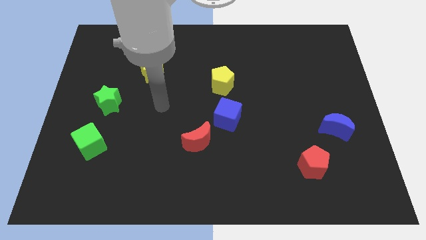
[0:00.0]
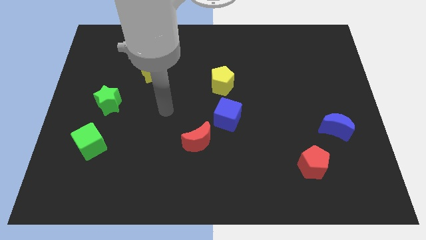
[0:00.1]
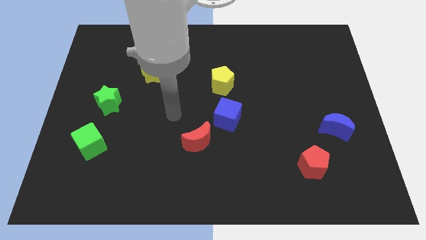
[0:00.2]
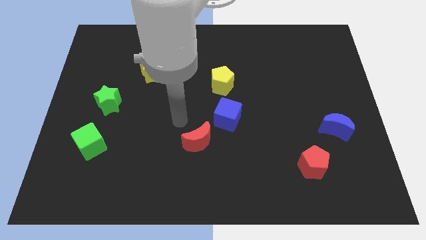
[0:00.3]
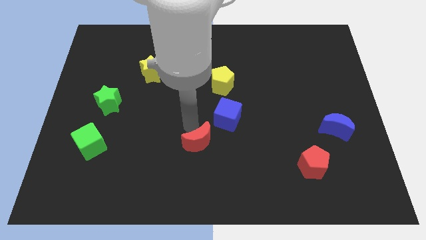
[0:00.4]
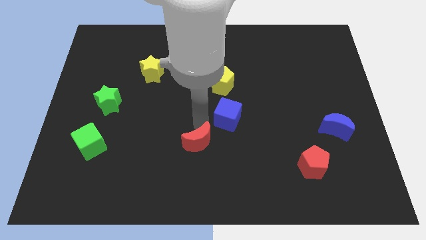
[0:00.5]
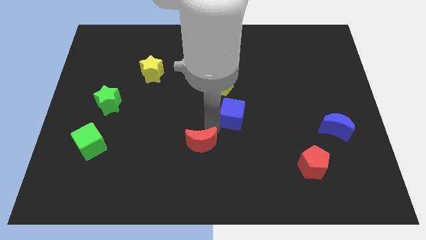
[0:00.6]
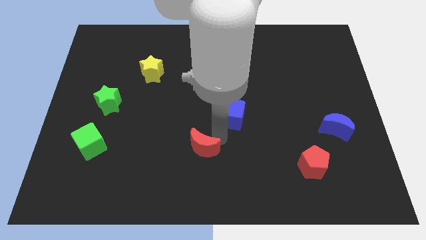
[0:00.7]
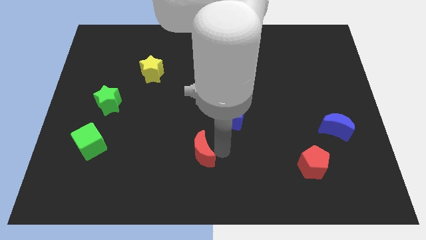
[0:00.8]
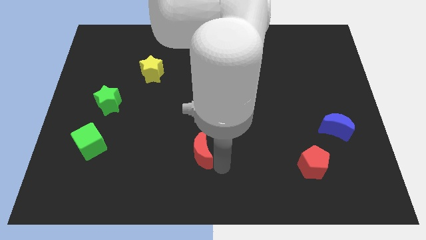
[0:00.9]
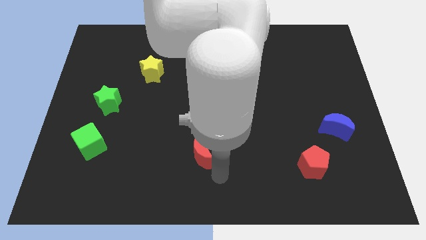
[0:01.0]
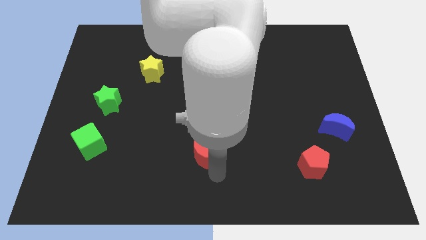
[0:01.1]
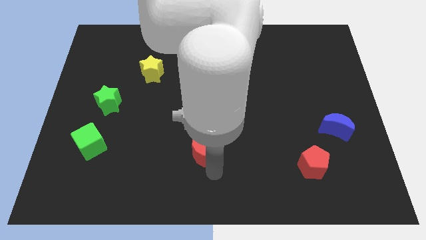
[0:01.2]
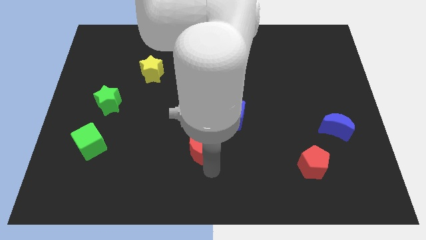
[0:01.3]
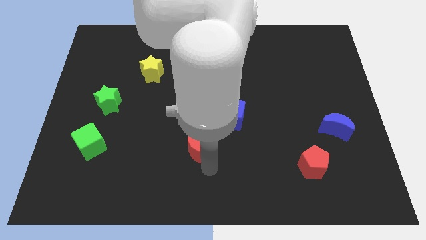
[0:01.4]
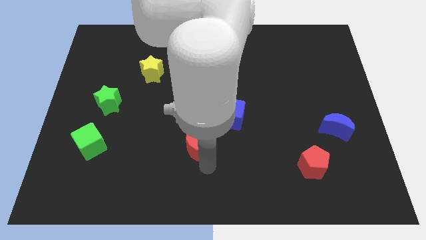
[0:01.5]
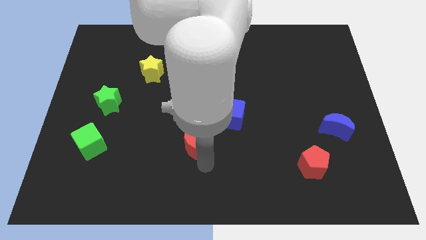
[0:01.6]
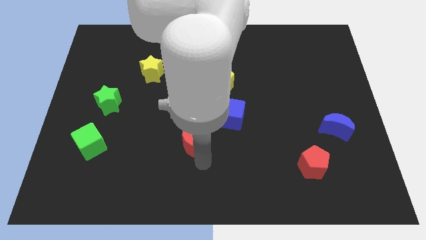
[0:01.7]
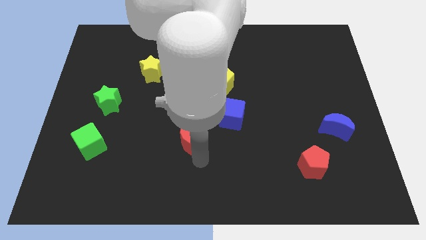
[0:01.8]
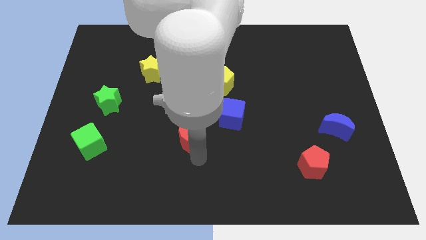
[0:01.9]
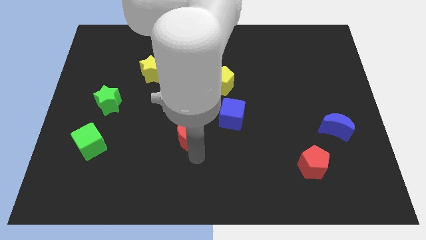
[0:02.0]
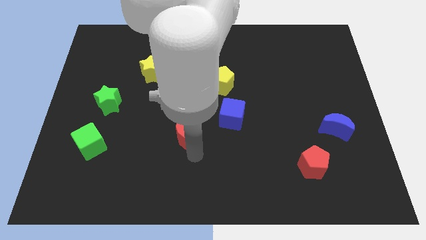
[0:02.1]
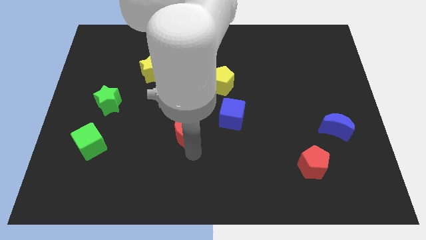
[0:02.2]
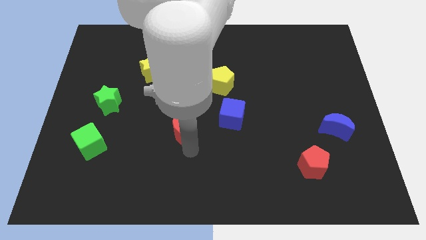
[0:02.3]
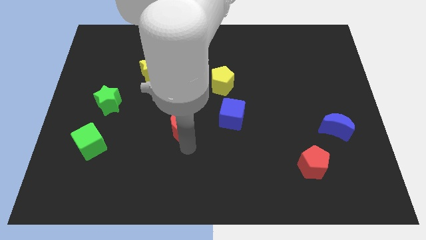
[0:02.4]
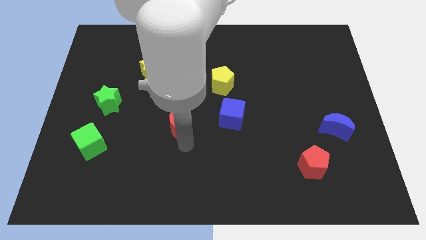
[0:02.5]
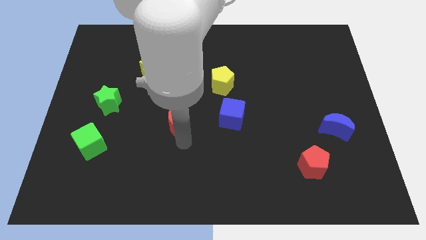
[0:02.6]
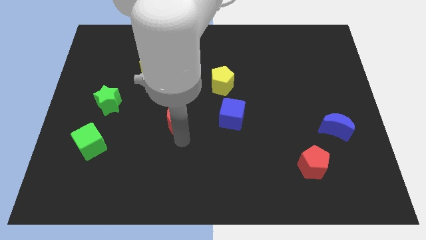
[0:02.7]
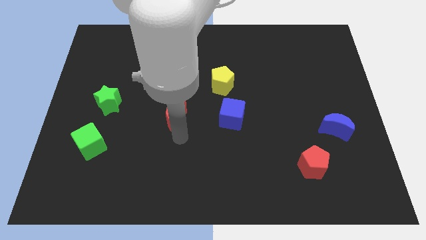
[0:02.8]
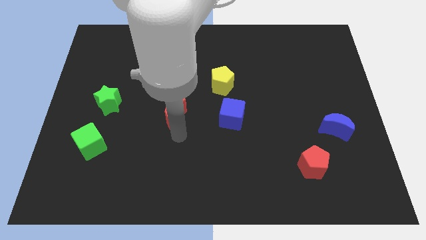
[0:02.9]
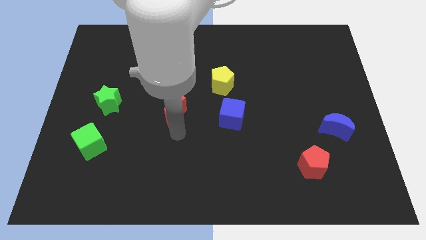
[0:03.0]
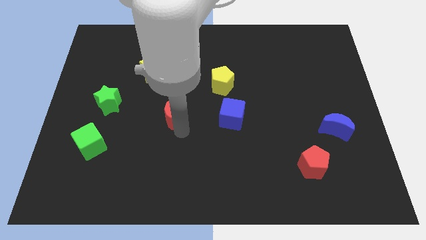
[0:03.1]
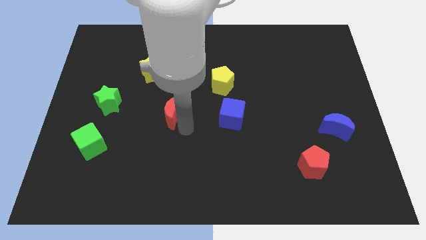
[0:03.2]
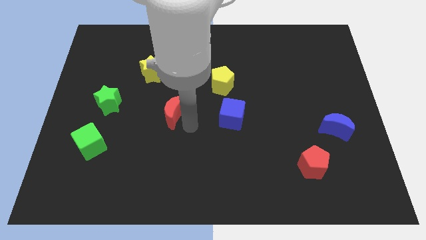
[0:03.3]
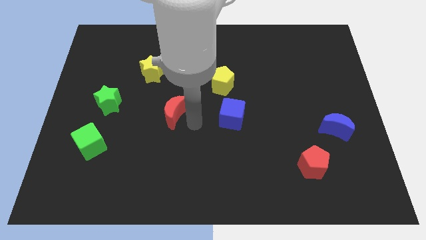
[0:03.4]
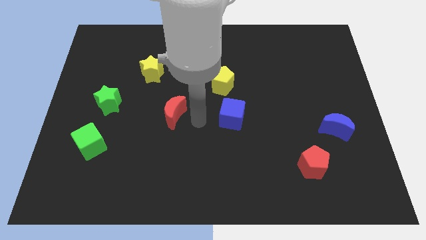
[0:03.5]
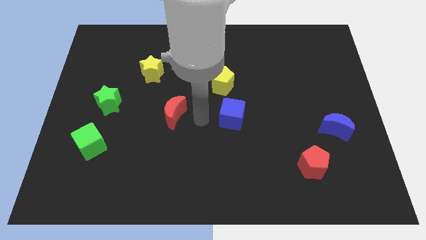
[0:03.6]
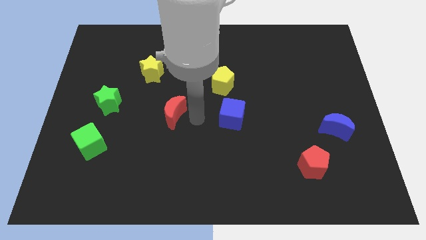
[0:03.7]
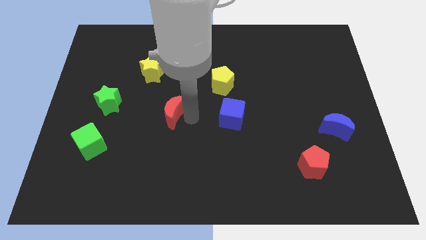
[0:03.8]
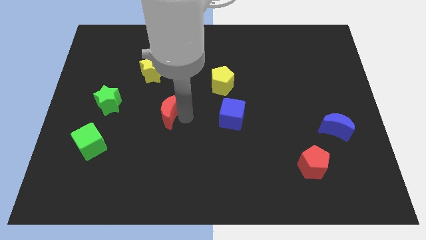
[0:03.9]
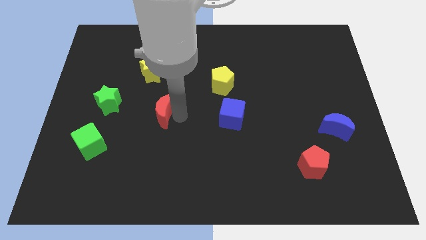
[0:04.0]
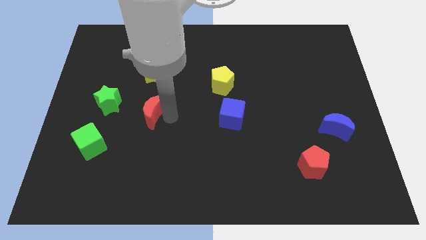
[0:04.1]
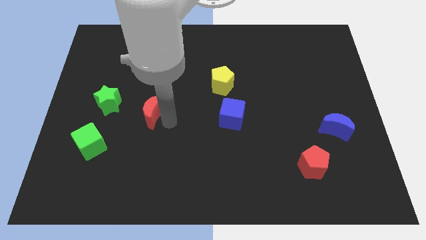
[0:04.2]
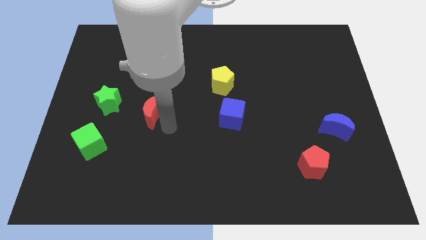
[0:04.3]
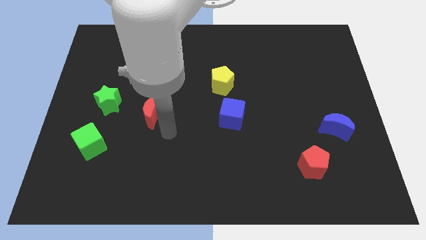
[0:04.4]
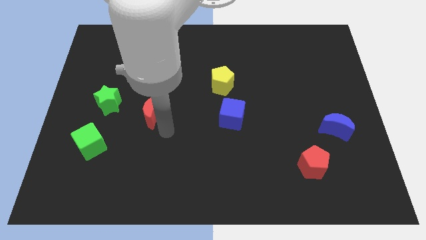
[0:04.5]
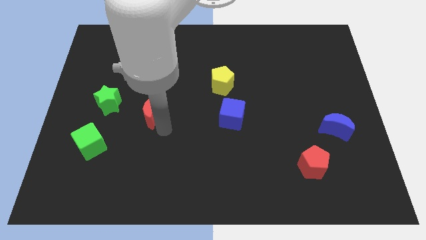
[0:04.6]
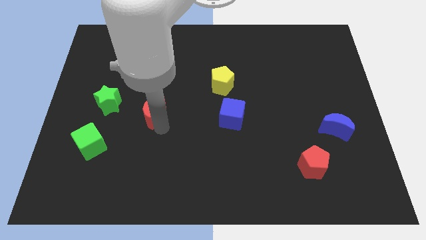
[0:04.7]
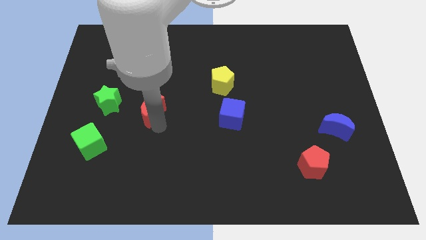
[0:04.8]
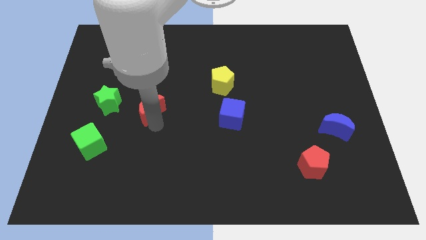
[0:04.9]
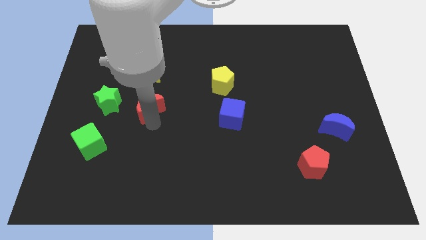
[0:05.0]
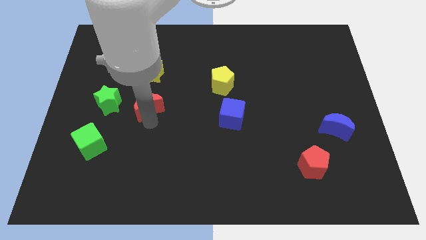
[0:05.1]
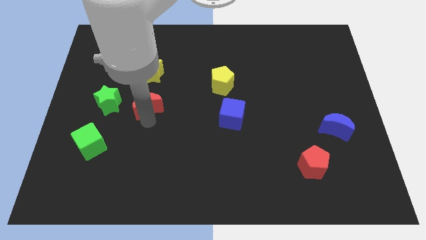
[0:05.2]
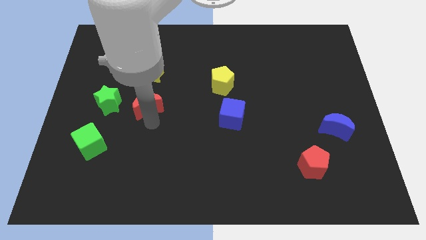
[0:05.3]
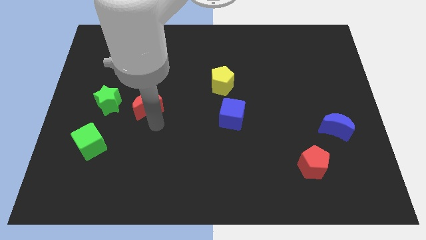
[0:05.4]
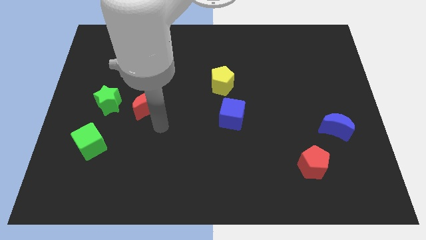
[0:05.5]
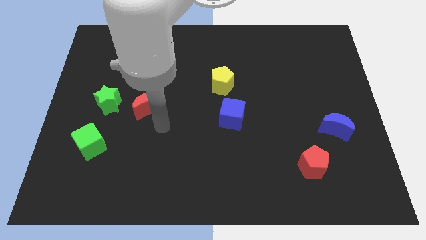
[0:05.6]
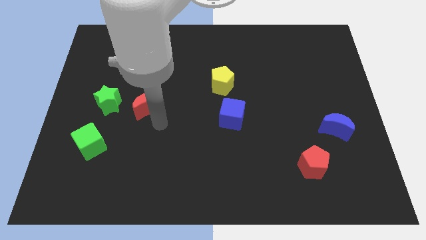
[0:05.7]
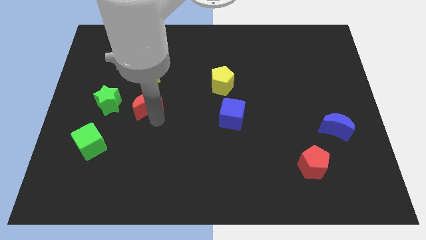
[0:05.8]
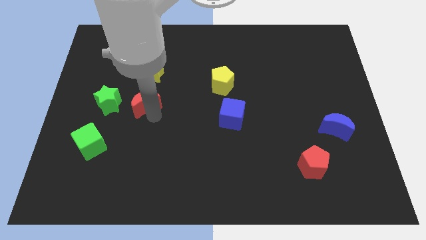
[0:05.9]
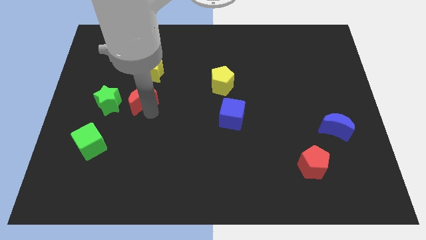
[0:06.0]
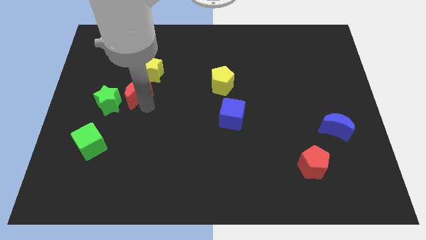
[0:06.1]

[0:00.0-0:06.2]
slide the red moon upwards and left

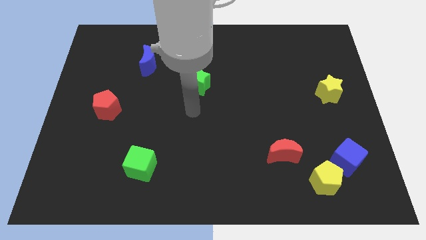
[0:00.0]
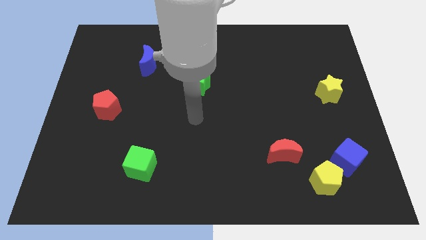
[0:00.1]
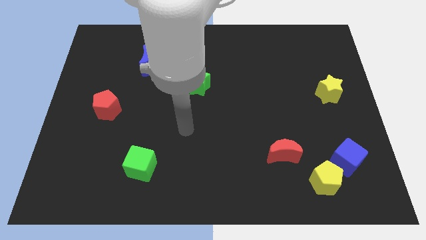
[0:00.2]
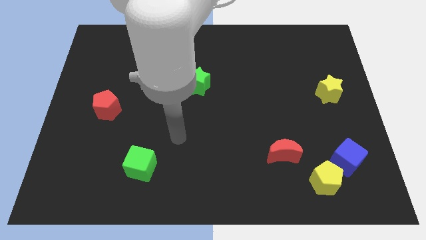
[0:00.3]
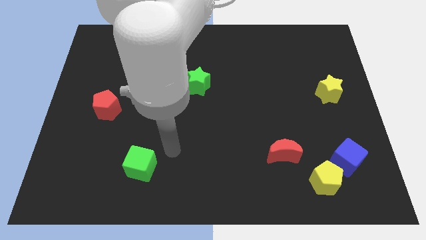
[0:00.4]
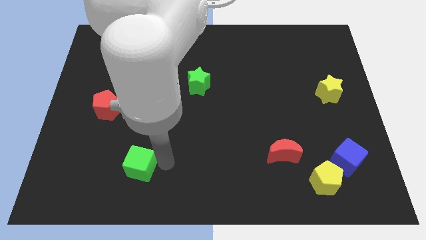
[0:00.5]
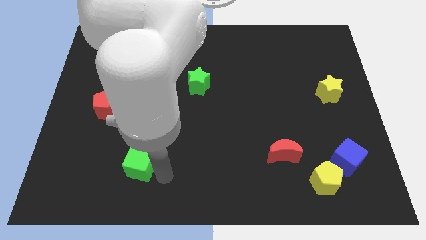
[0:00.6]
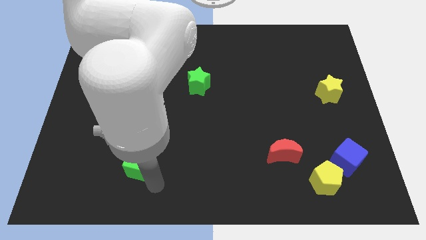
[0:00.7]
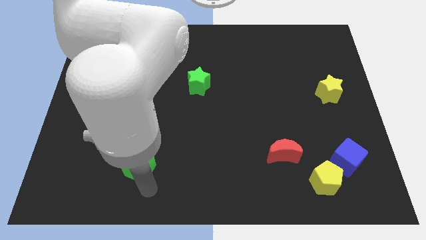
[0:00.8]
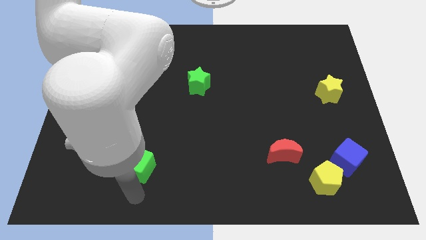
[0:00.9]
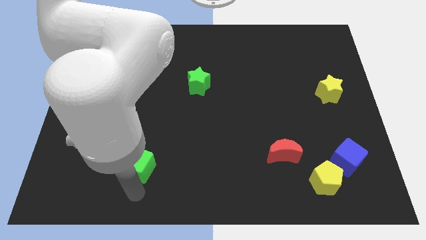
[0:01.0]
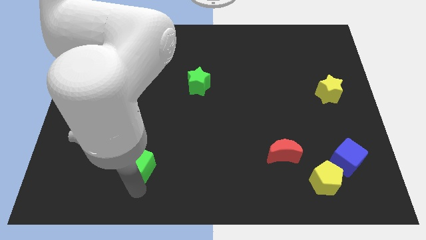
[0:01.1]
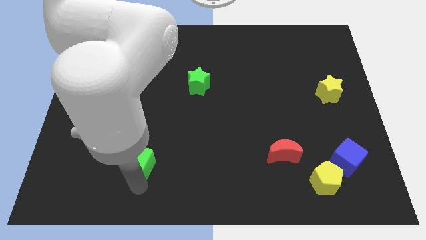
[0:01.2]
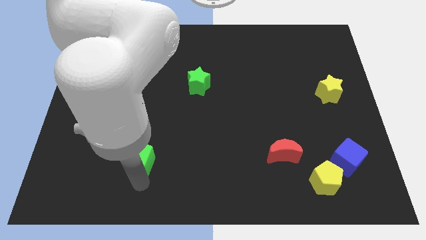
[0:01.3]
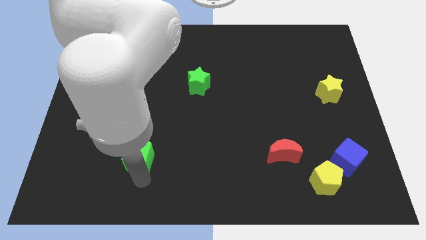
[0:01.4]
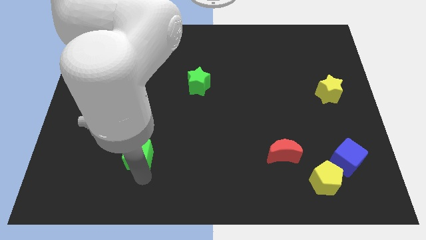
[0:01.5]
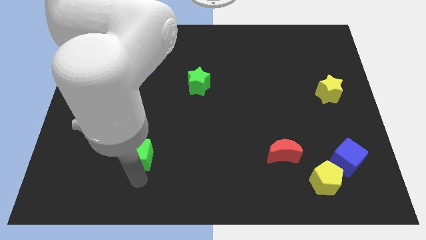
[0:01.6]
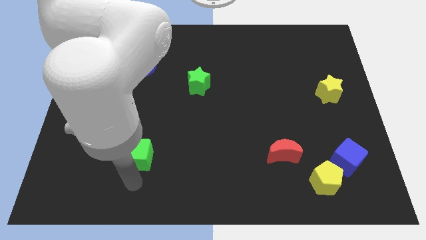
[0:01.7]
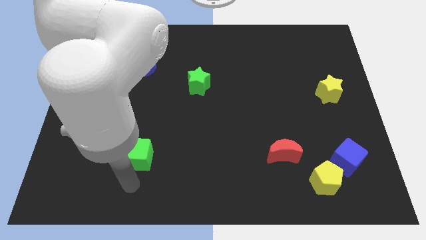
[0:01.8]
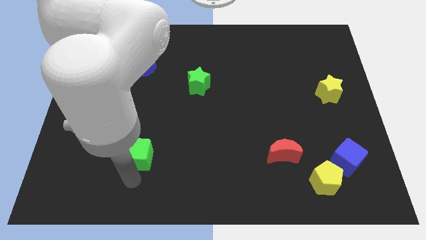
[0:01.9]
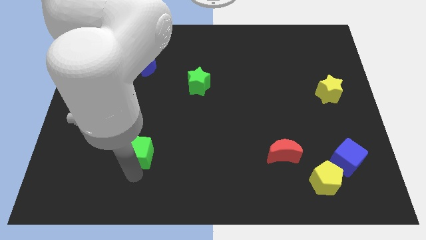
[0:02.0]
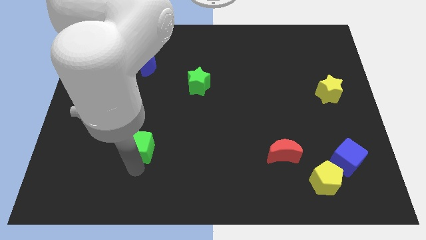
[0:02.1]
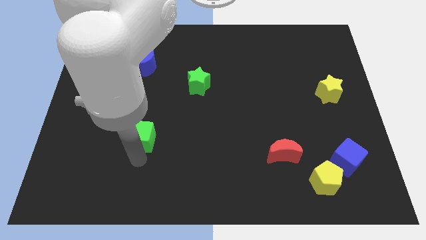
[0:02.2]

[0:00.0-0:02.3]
push the green cube somewhat upwards
